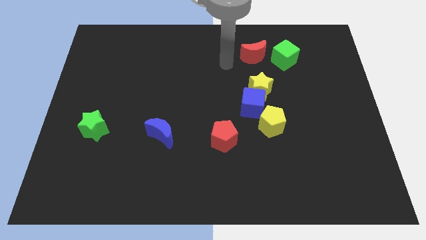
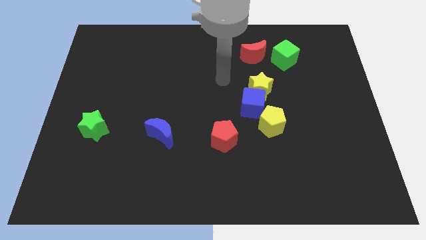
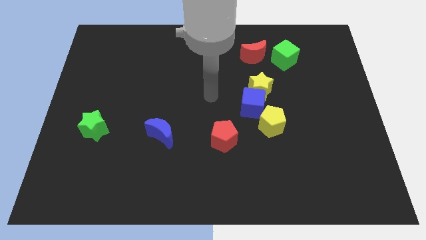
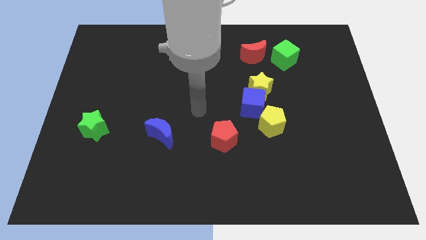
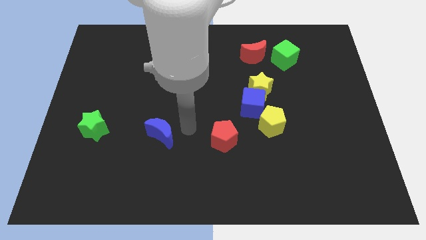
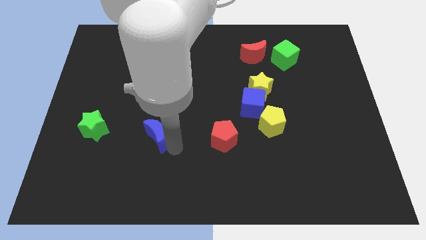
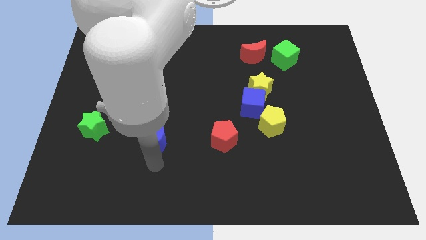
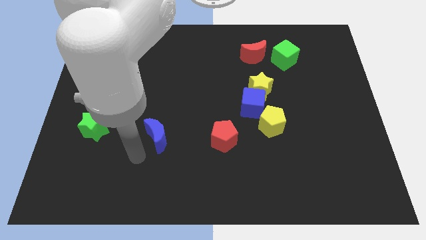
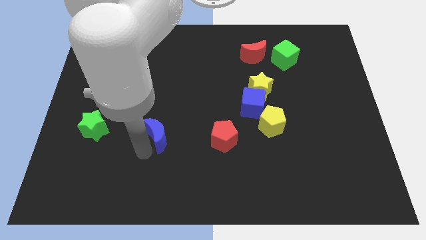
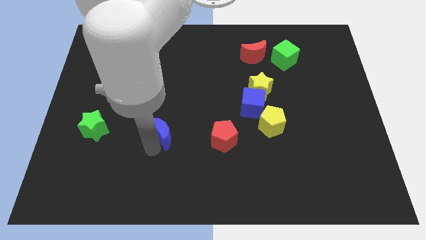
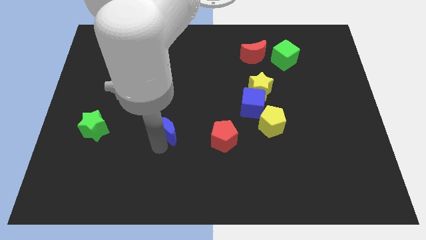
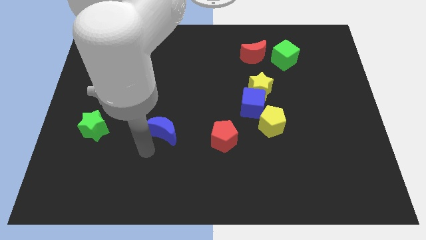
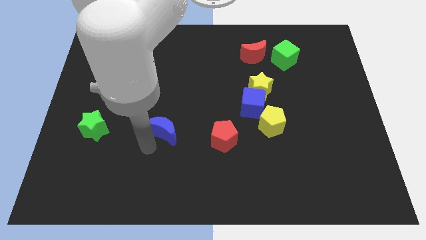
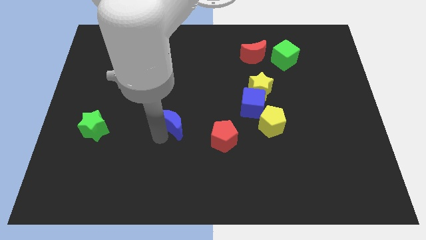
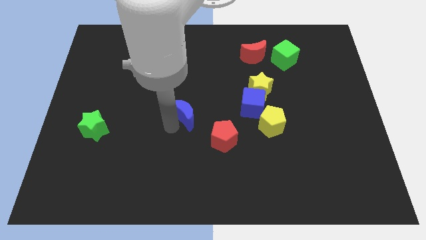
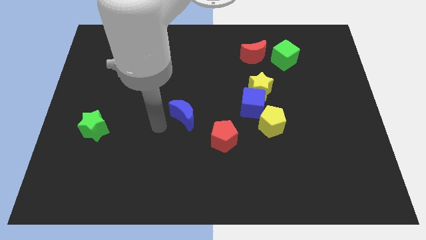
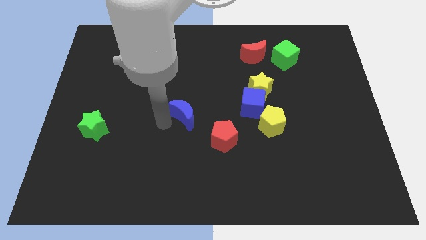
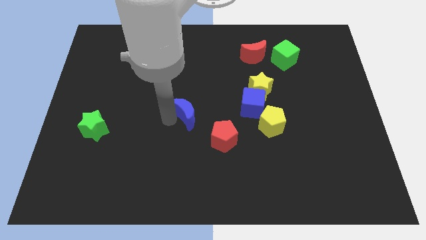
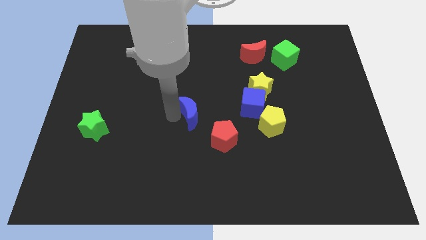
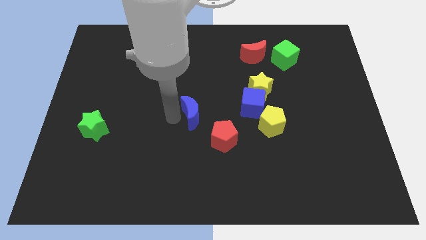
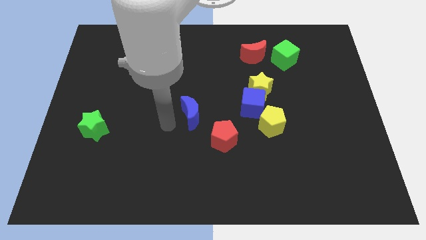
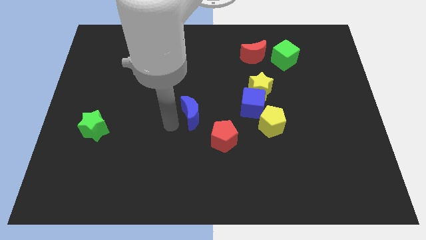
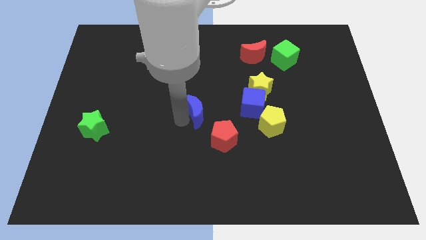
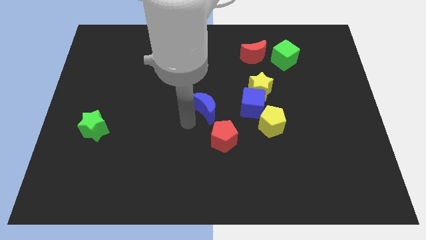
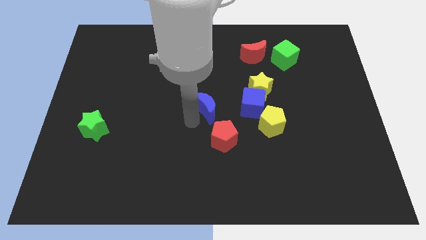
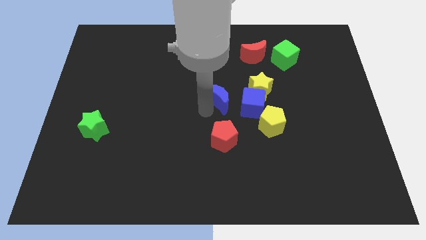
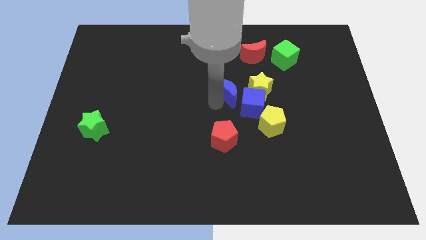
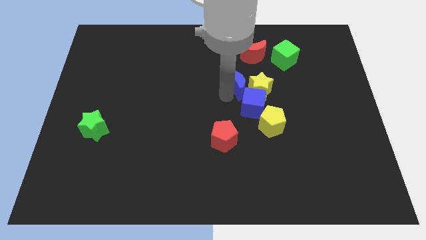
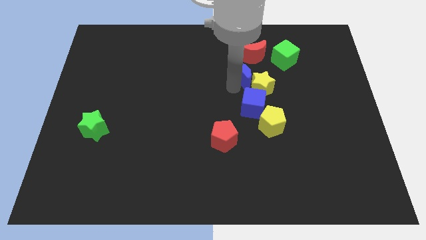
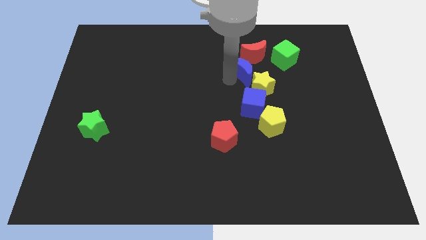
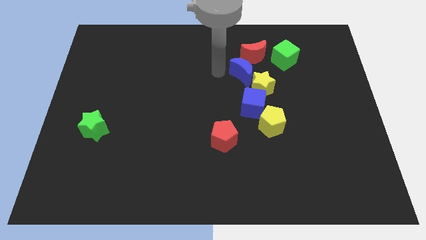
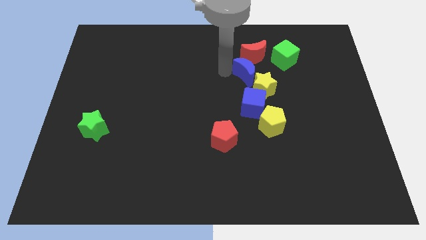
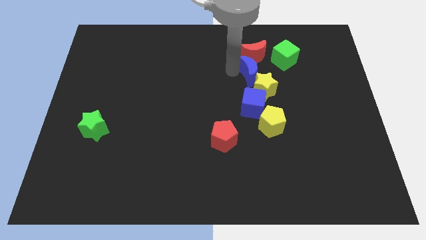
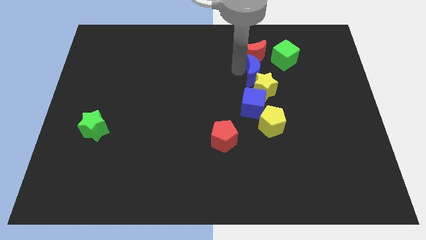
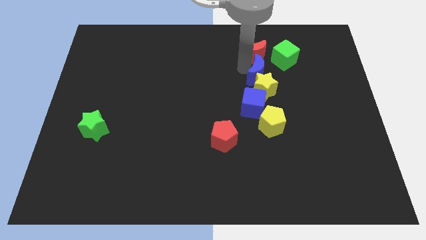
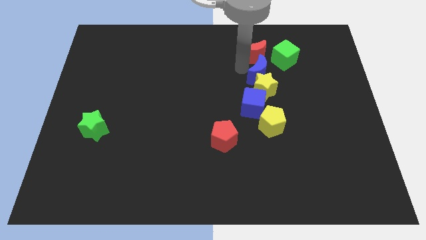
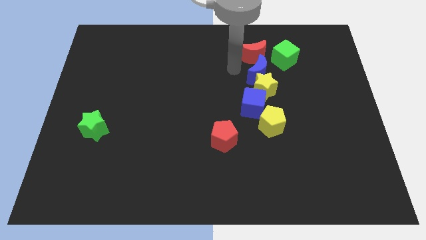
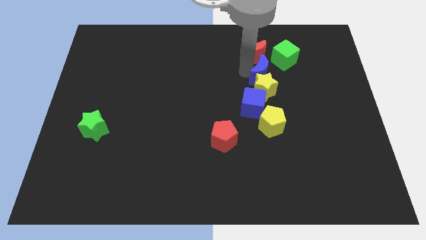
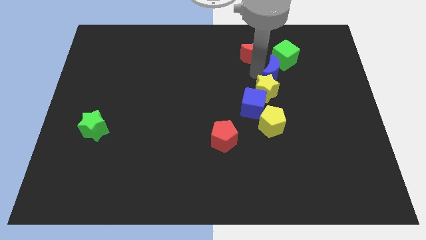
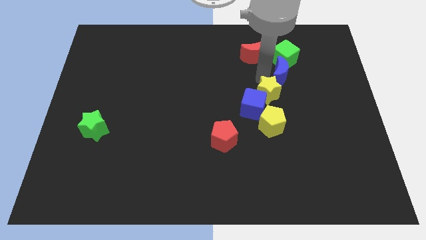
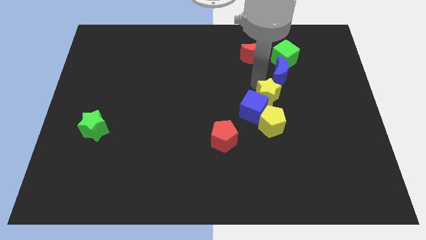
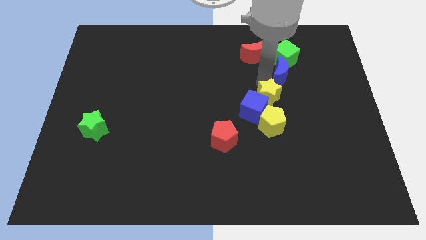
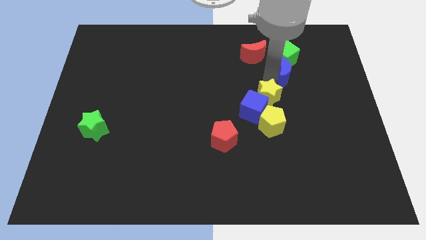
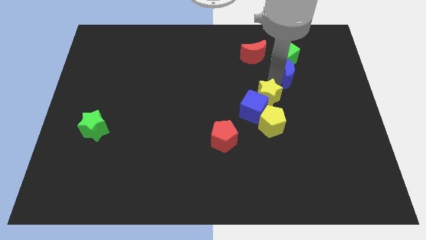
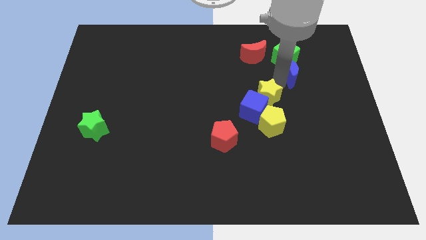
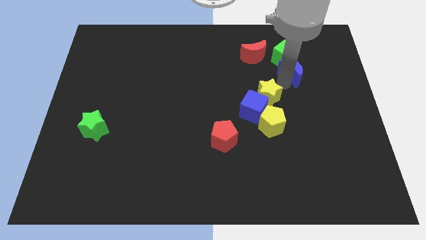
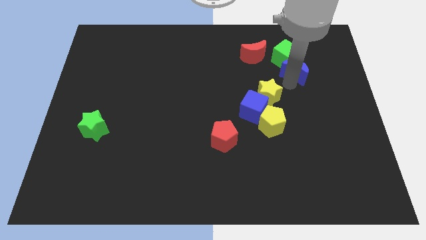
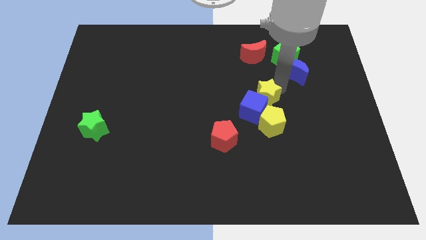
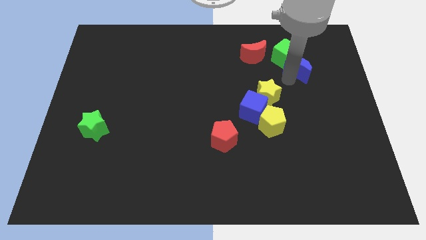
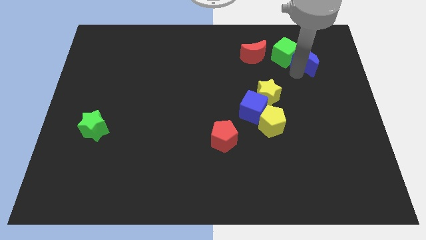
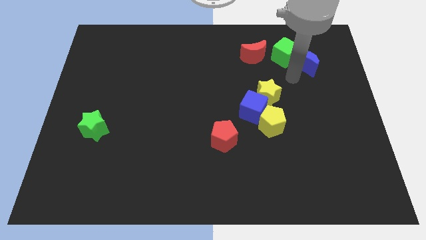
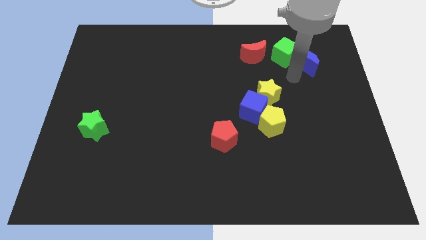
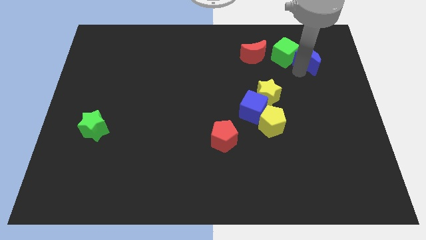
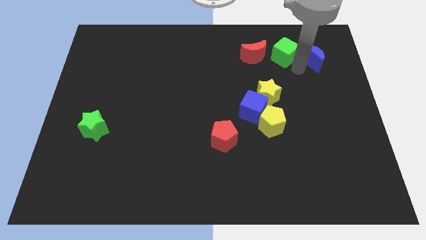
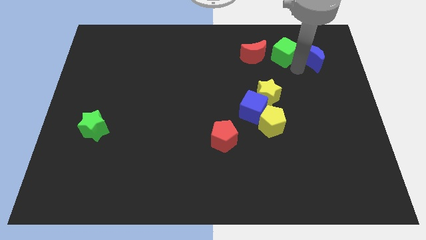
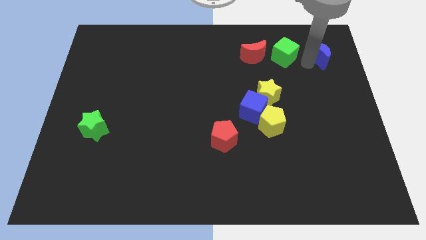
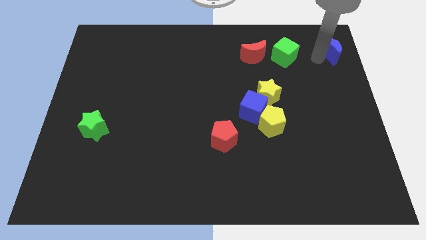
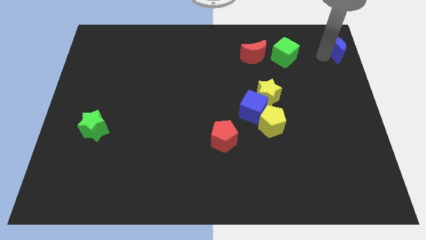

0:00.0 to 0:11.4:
put the blue moon to the top right

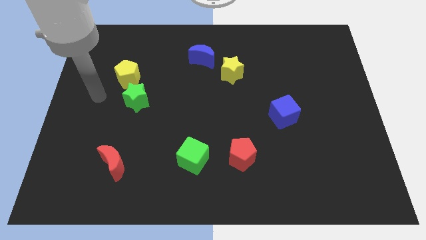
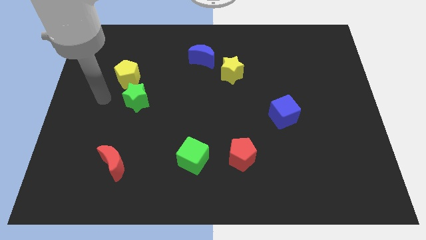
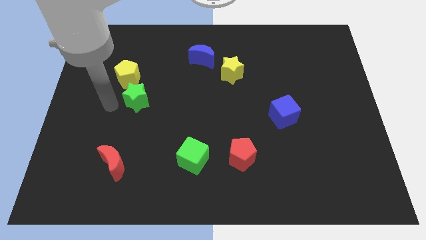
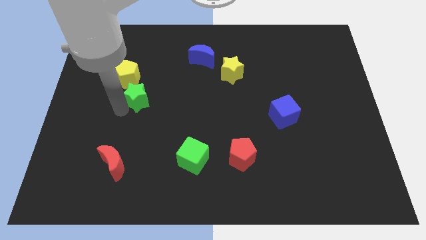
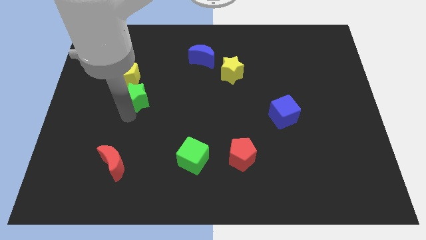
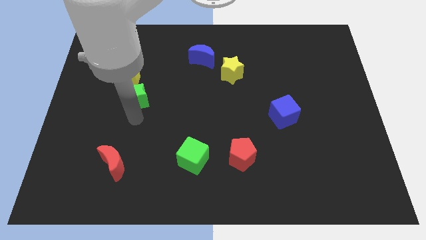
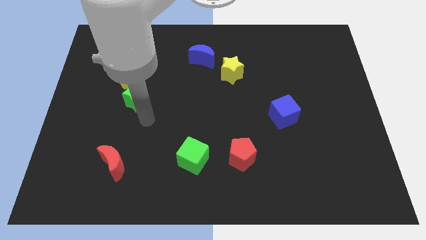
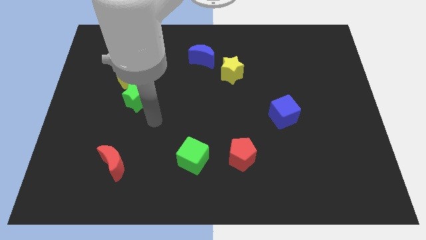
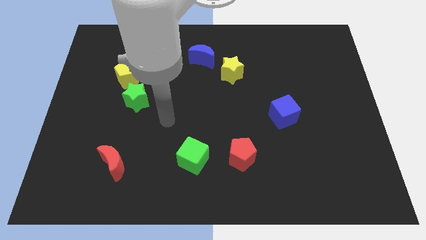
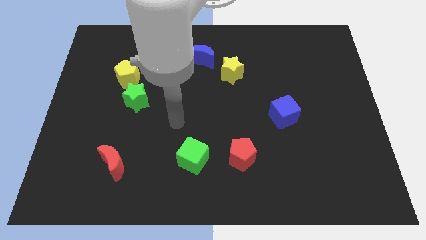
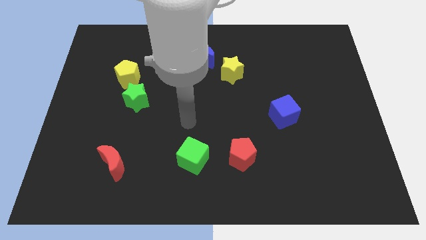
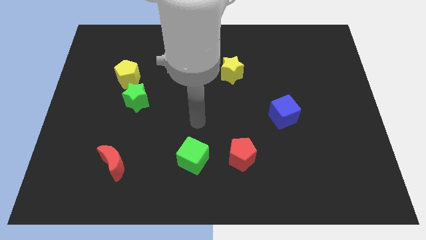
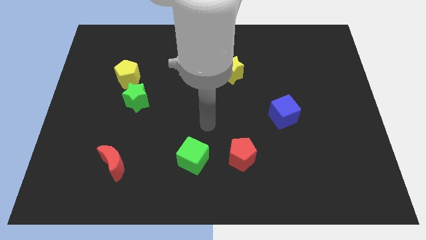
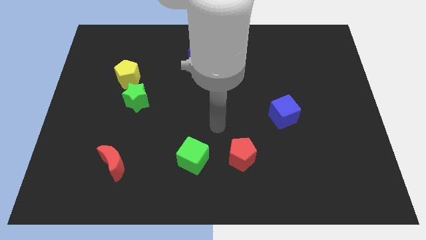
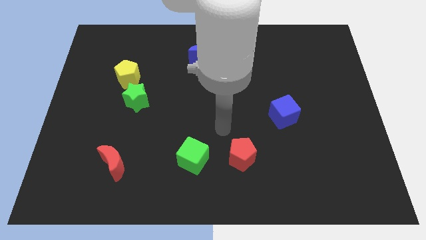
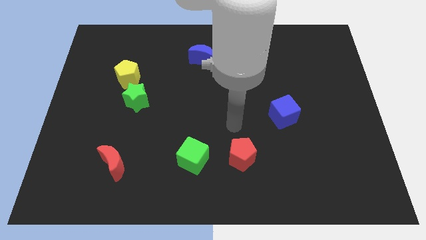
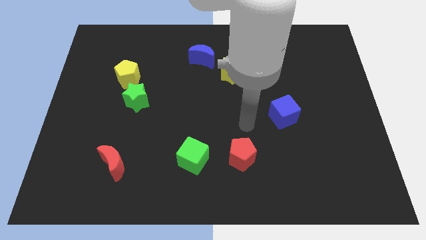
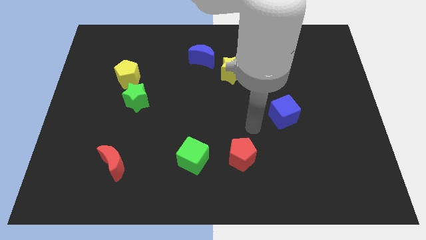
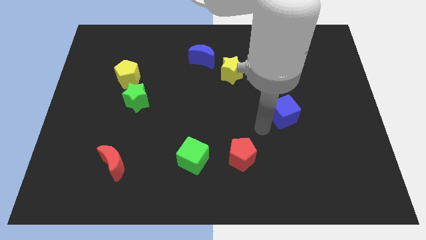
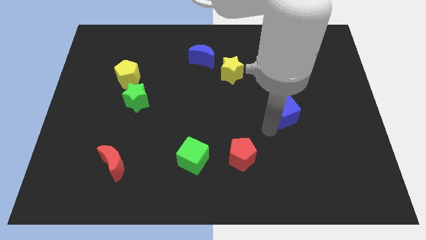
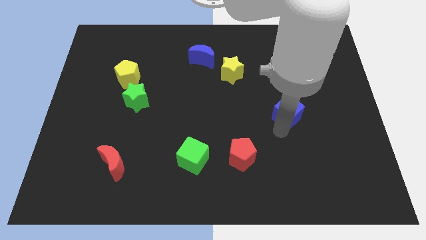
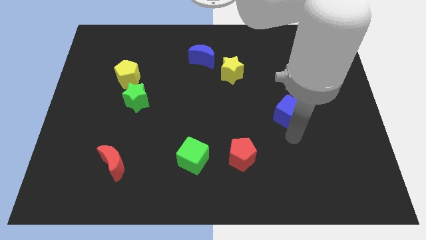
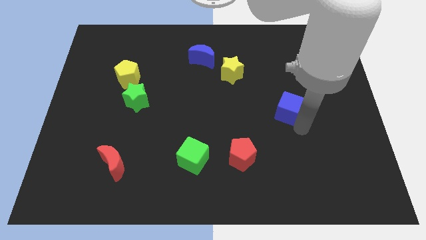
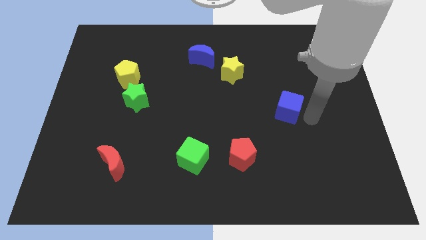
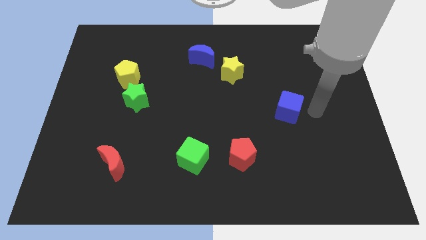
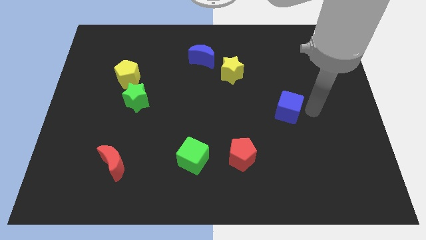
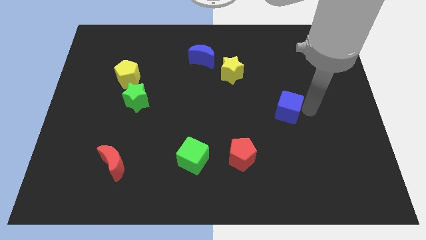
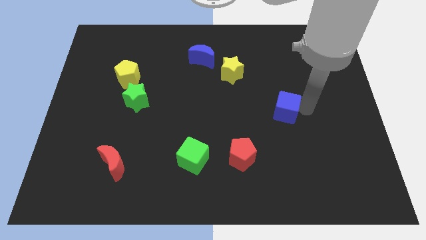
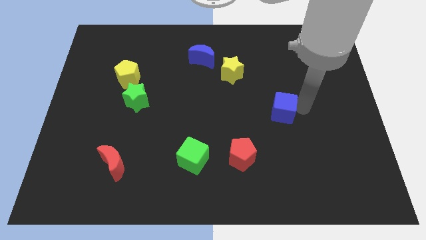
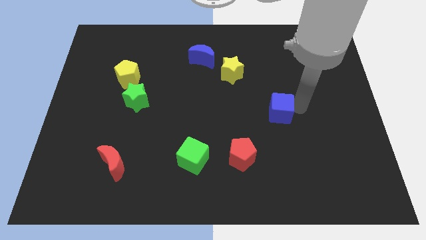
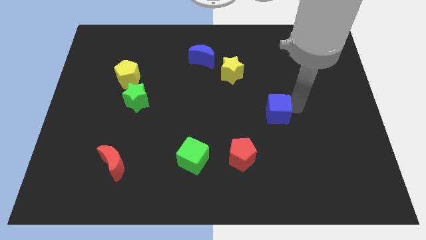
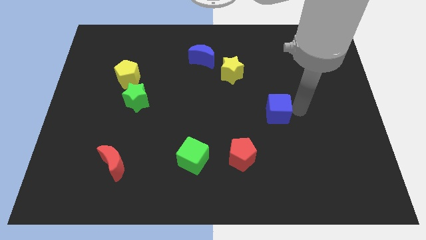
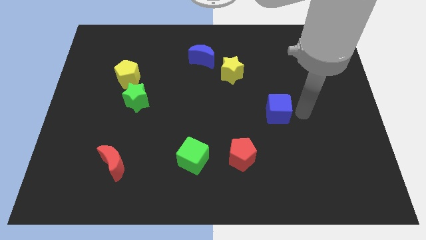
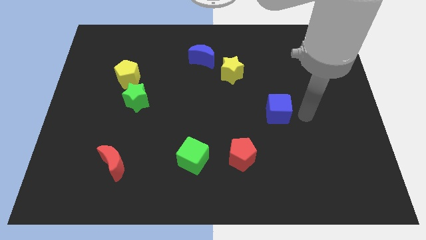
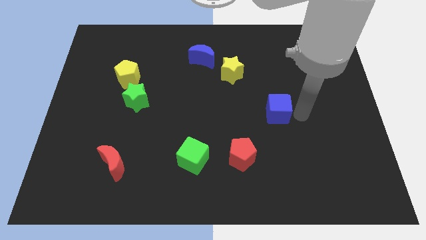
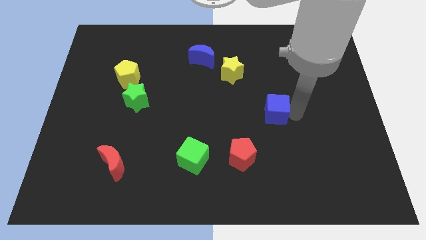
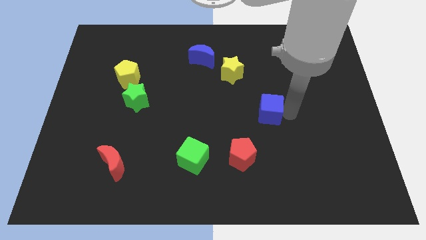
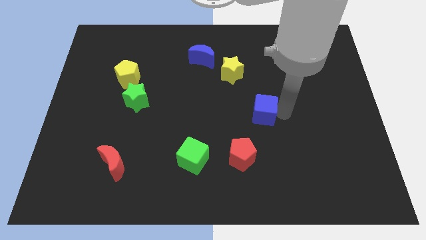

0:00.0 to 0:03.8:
slide the blue cube to the middle
